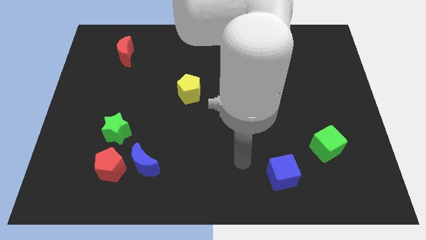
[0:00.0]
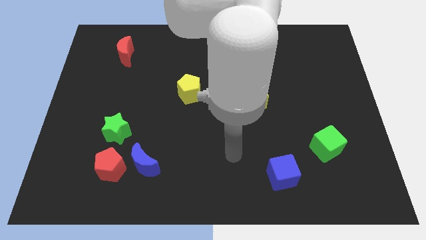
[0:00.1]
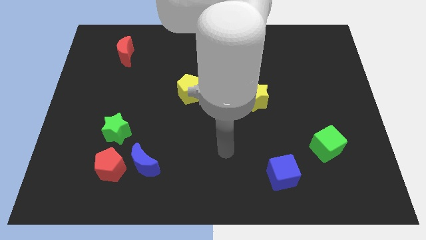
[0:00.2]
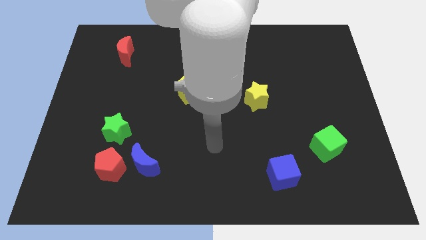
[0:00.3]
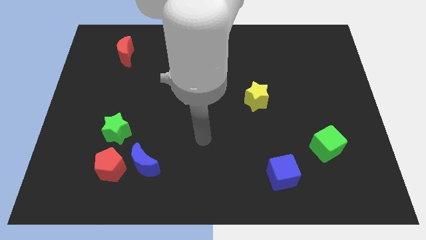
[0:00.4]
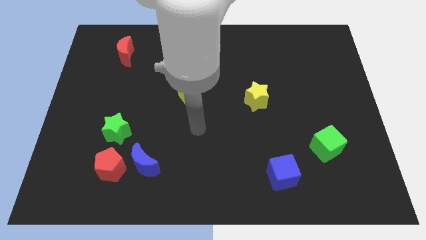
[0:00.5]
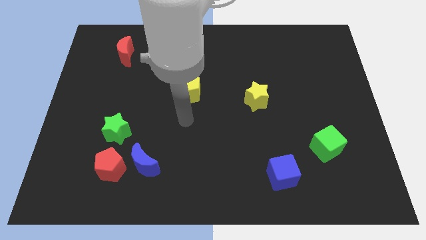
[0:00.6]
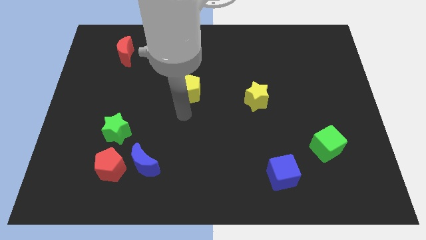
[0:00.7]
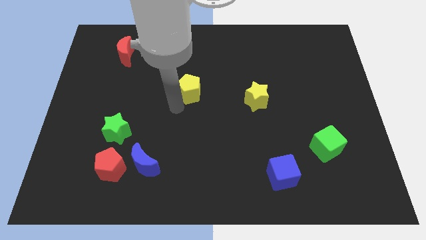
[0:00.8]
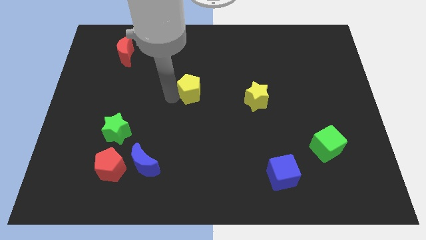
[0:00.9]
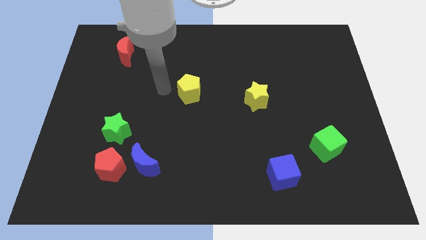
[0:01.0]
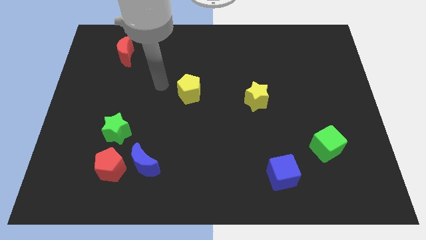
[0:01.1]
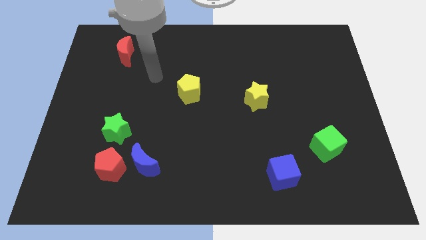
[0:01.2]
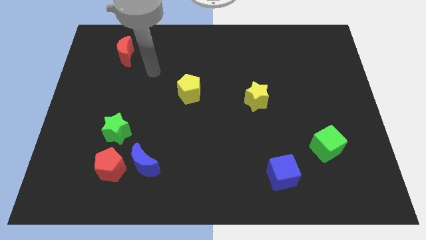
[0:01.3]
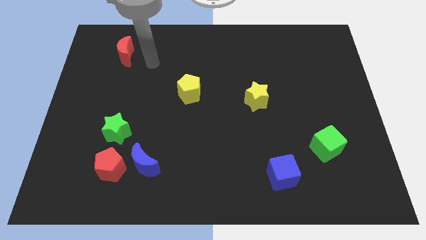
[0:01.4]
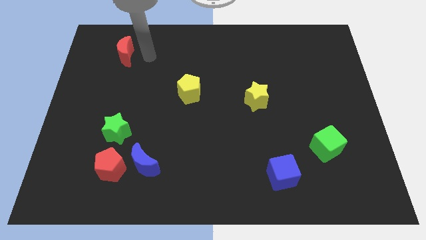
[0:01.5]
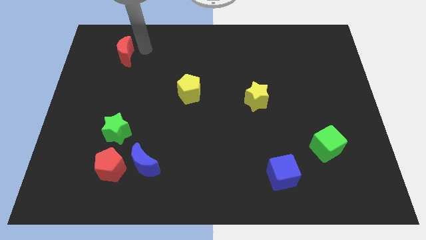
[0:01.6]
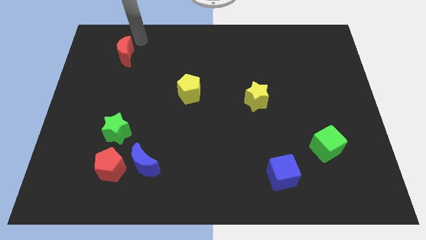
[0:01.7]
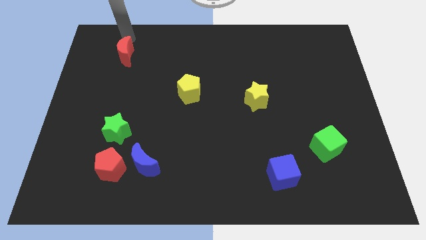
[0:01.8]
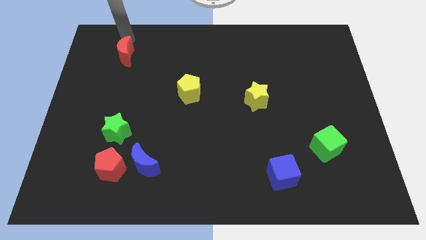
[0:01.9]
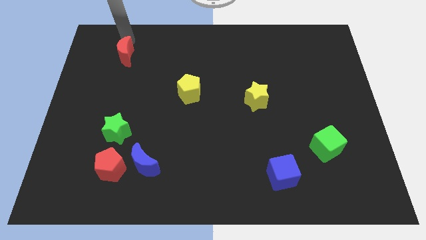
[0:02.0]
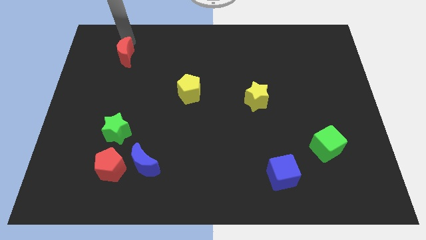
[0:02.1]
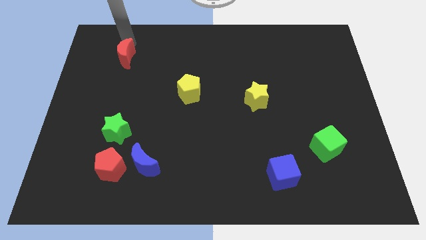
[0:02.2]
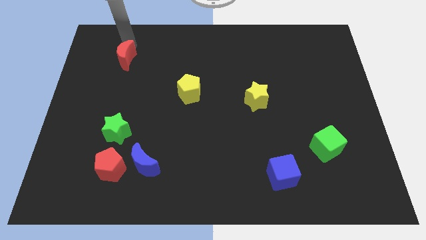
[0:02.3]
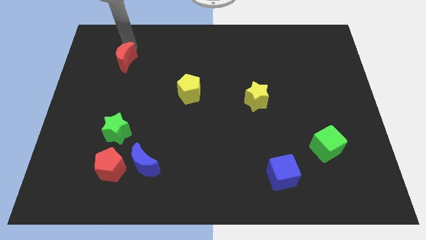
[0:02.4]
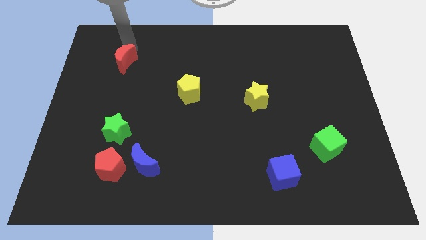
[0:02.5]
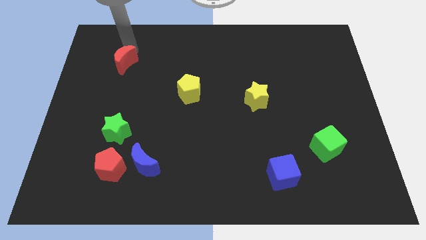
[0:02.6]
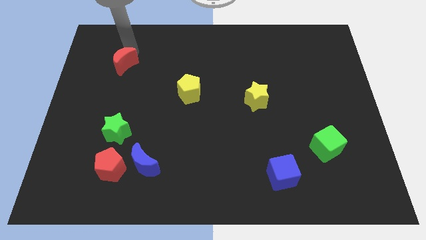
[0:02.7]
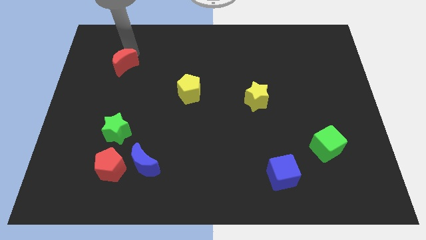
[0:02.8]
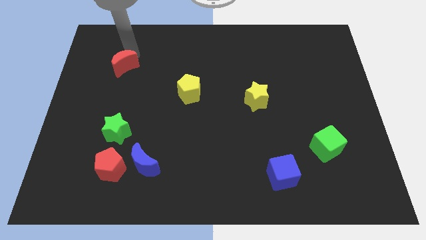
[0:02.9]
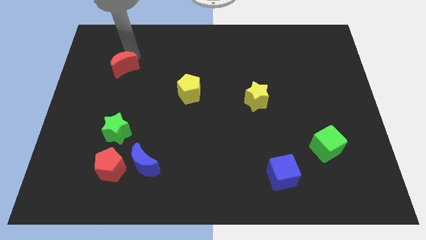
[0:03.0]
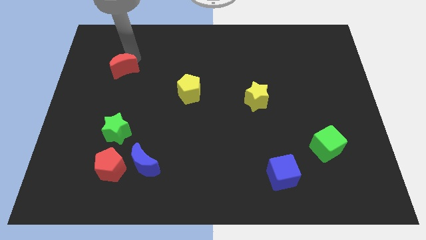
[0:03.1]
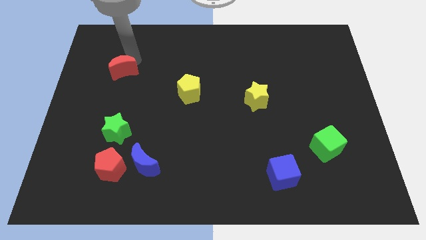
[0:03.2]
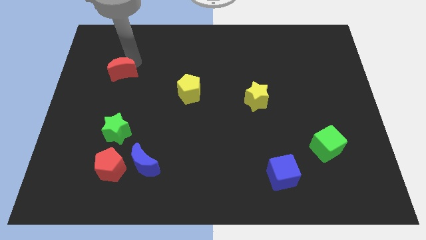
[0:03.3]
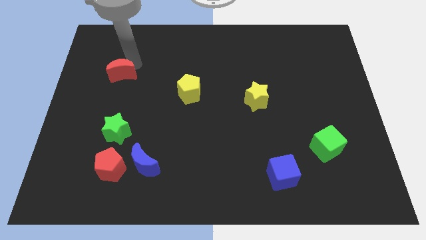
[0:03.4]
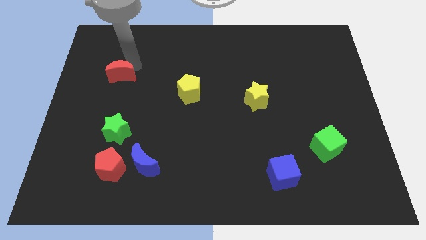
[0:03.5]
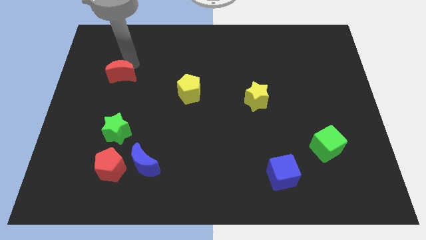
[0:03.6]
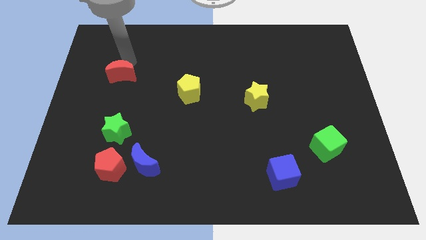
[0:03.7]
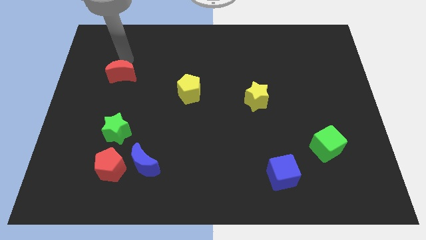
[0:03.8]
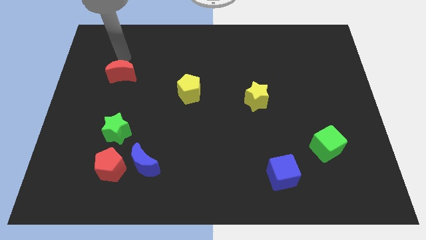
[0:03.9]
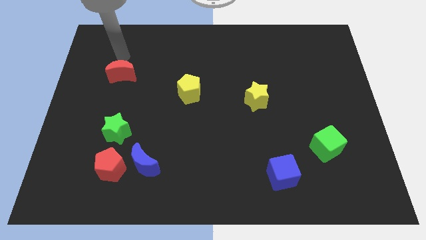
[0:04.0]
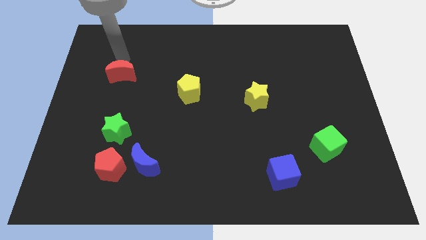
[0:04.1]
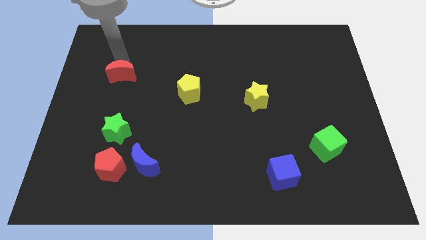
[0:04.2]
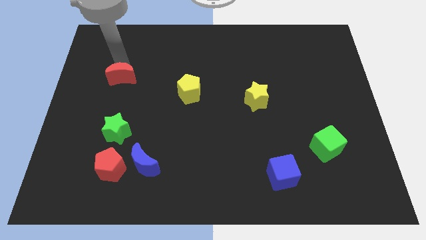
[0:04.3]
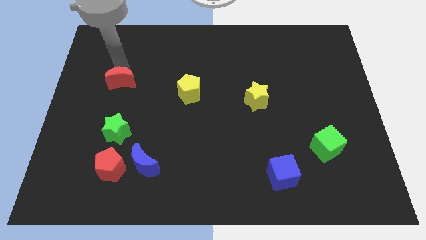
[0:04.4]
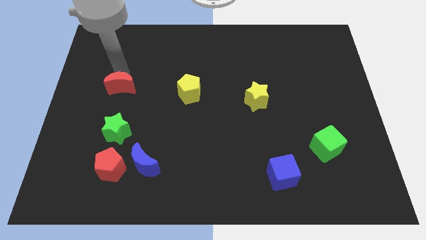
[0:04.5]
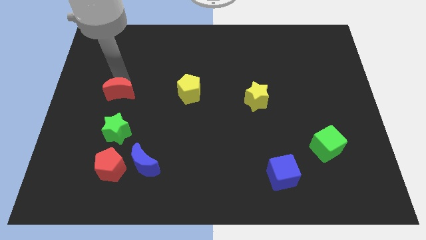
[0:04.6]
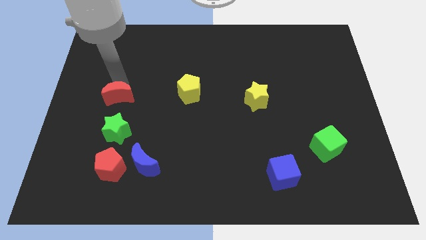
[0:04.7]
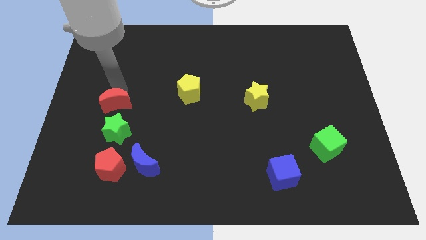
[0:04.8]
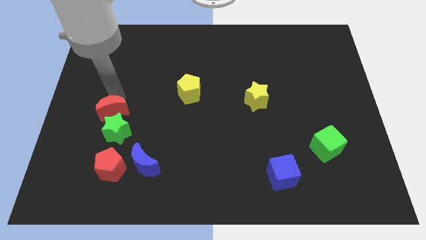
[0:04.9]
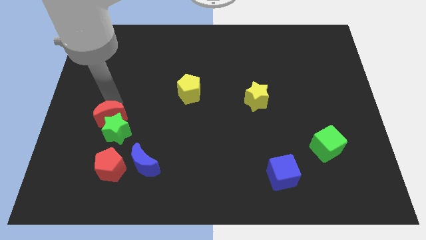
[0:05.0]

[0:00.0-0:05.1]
push the red moon next to the green star

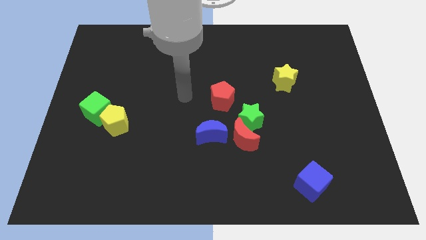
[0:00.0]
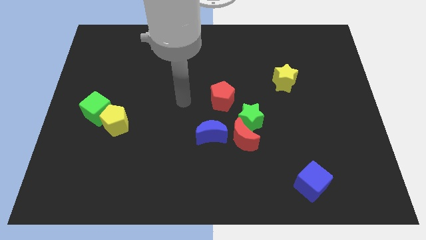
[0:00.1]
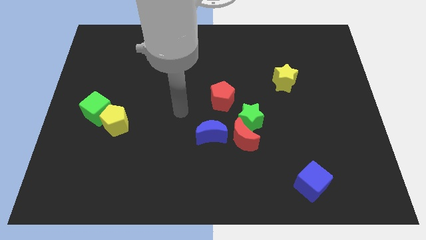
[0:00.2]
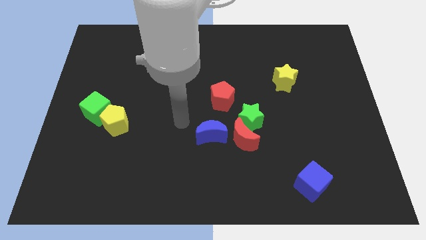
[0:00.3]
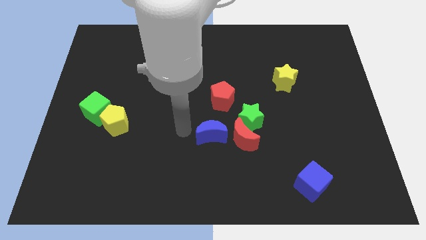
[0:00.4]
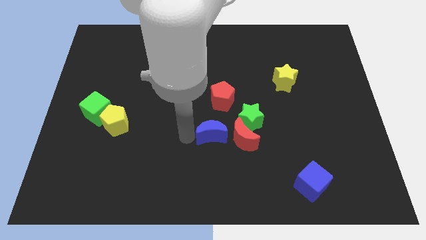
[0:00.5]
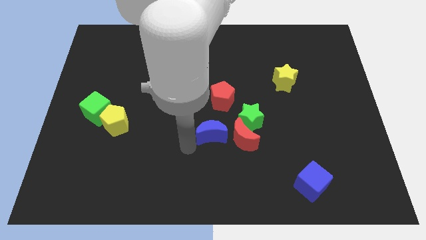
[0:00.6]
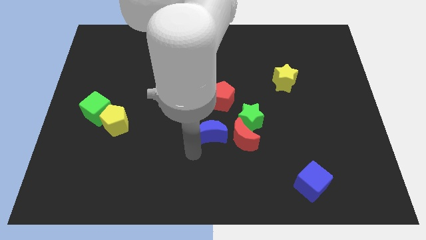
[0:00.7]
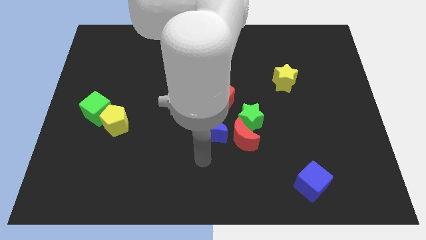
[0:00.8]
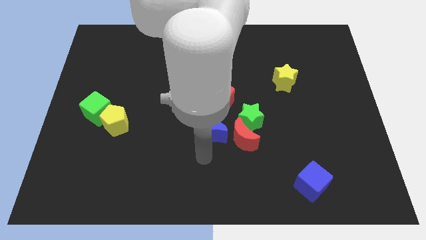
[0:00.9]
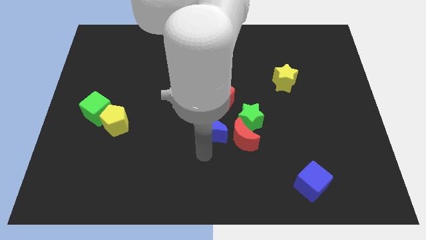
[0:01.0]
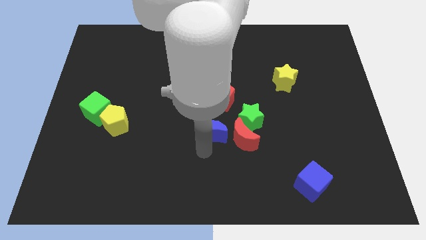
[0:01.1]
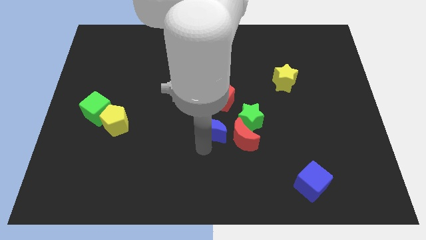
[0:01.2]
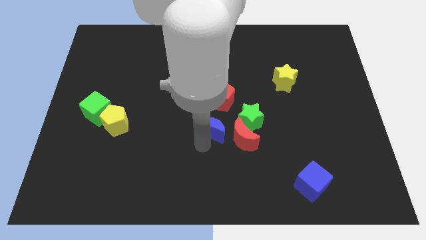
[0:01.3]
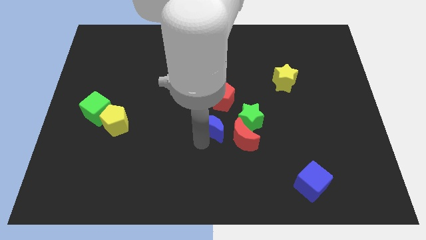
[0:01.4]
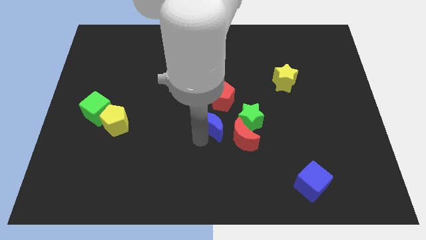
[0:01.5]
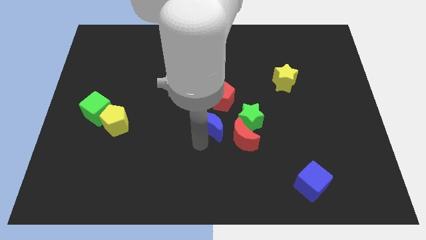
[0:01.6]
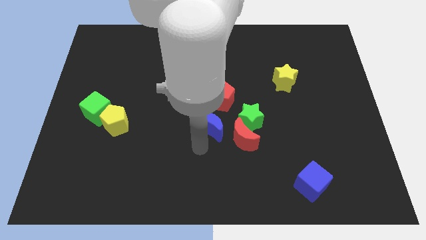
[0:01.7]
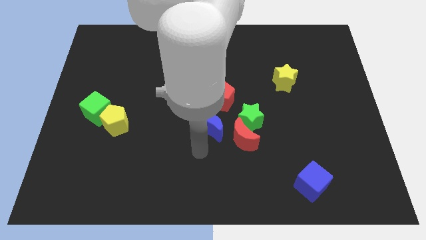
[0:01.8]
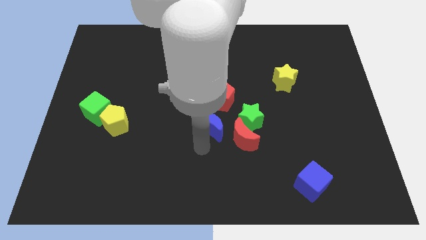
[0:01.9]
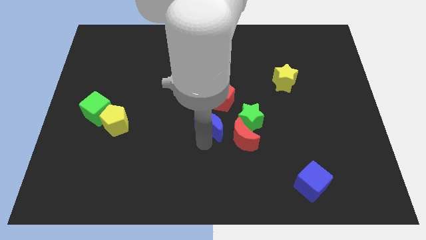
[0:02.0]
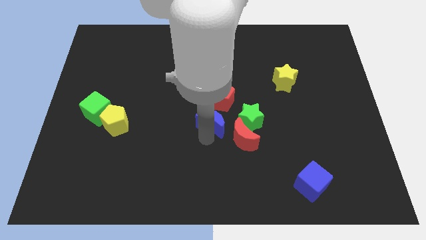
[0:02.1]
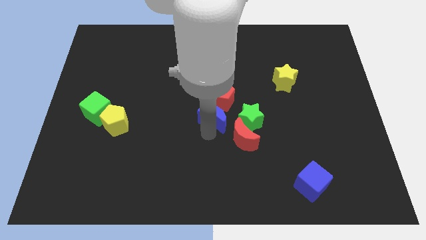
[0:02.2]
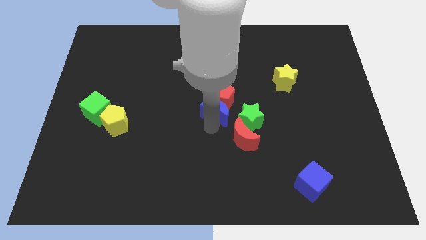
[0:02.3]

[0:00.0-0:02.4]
push the blue moon close to the red pentagon
